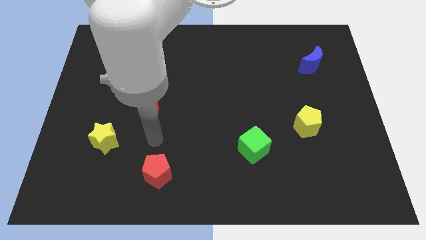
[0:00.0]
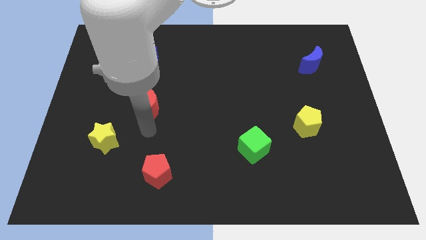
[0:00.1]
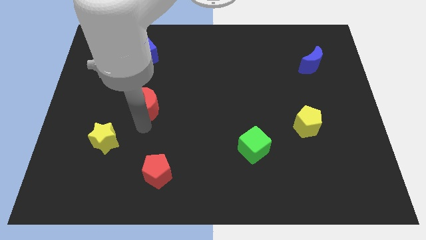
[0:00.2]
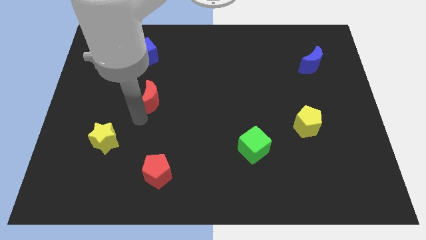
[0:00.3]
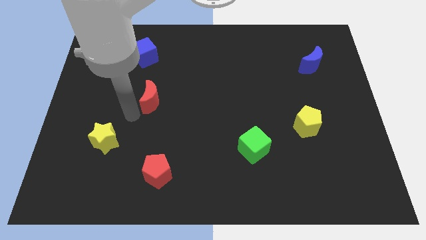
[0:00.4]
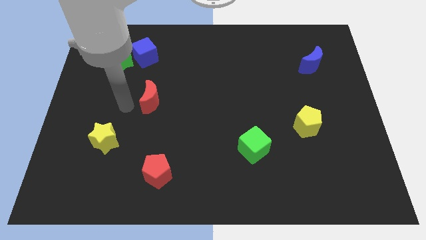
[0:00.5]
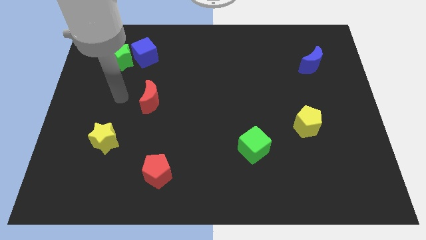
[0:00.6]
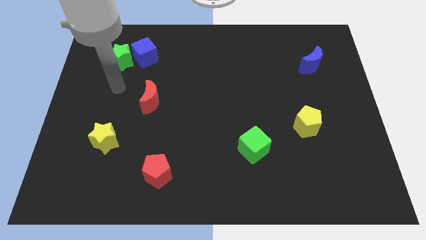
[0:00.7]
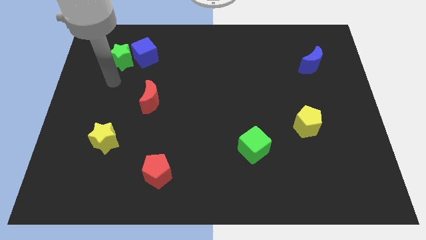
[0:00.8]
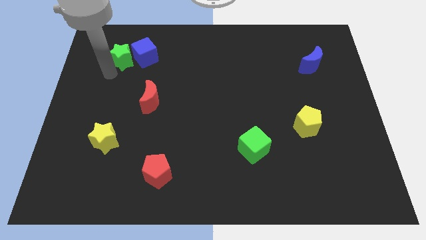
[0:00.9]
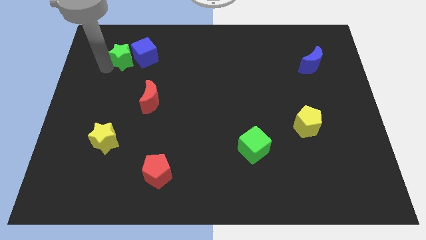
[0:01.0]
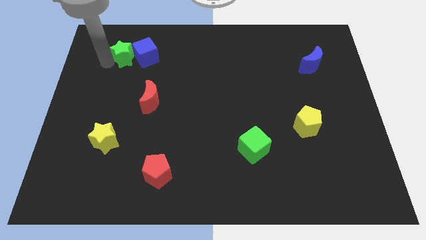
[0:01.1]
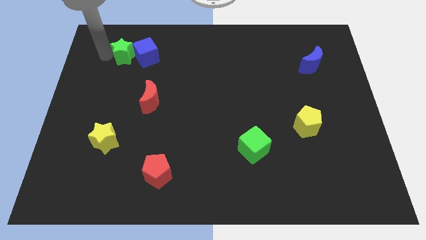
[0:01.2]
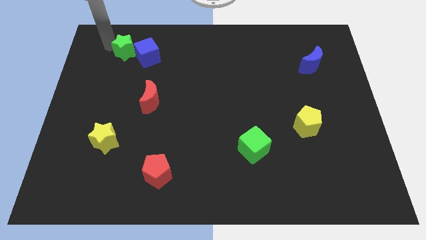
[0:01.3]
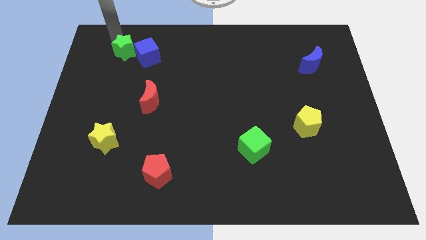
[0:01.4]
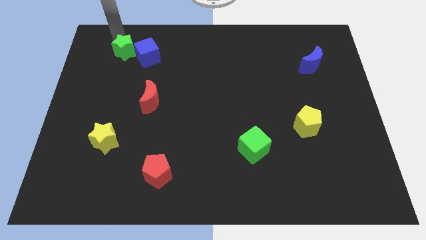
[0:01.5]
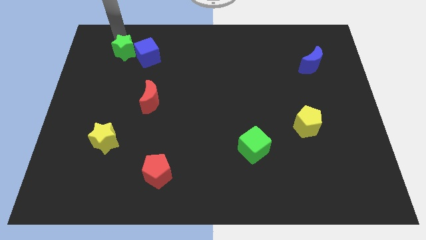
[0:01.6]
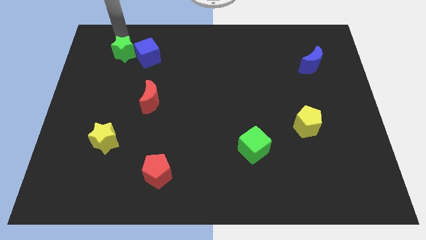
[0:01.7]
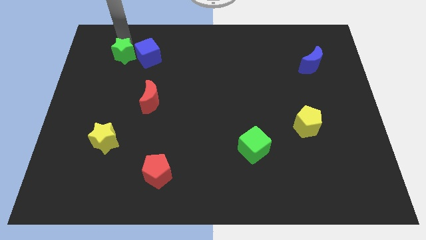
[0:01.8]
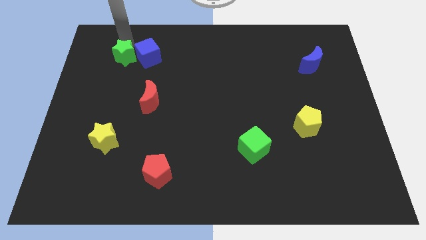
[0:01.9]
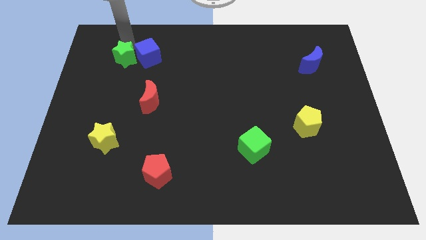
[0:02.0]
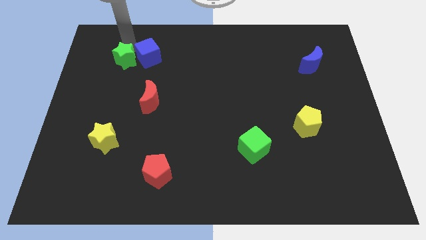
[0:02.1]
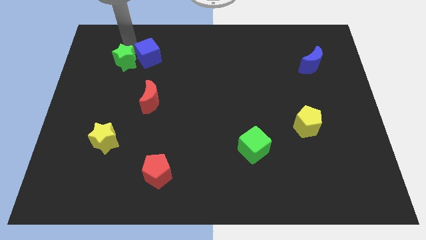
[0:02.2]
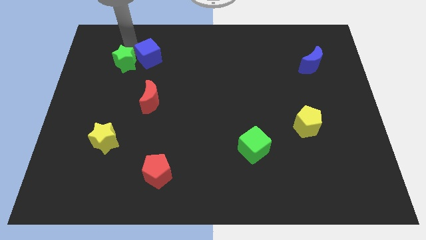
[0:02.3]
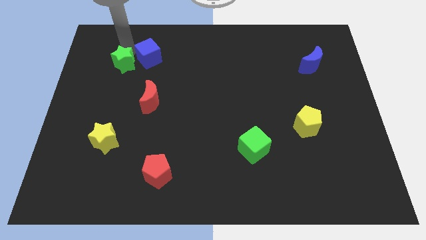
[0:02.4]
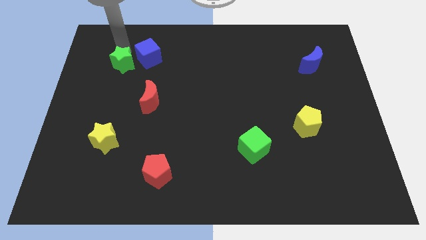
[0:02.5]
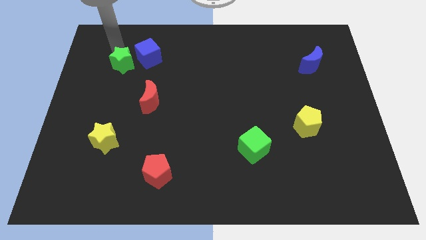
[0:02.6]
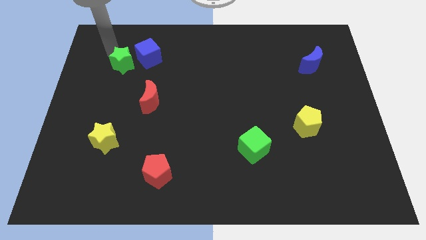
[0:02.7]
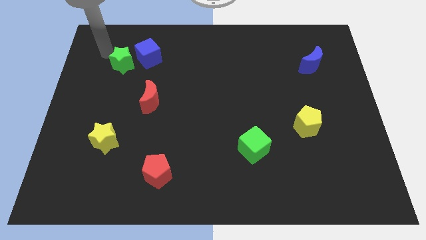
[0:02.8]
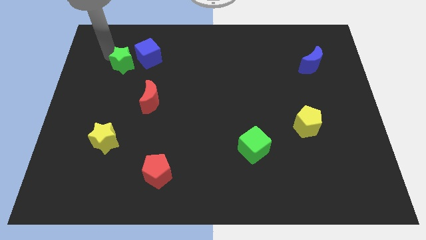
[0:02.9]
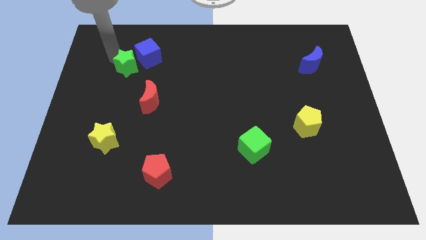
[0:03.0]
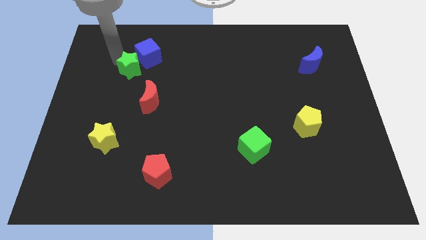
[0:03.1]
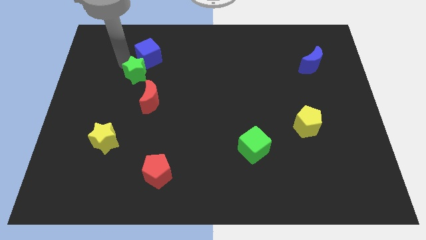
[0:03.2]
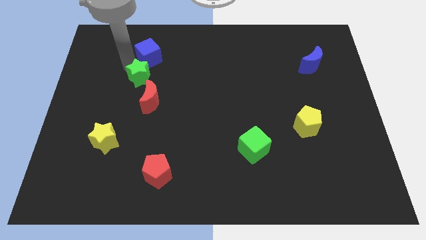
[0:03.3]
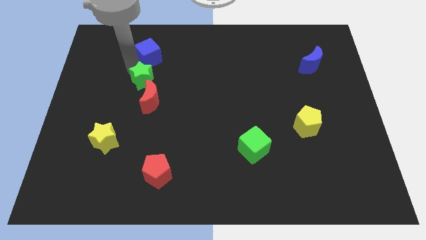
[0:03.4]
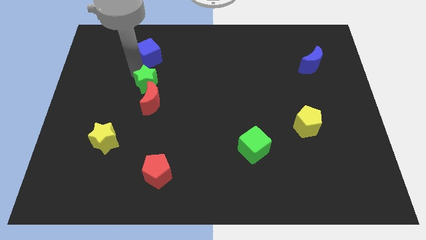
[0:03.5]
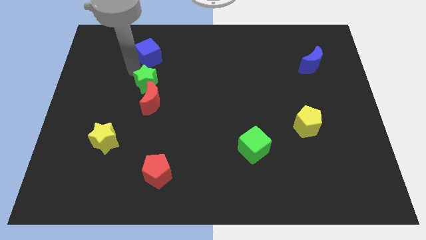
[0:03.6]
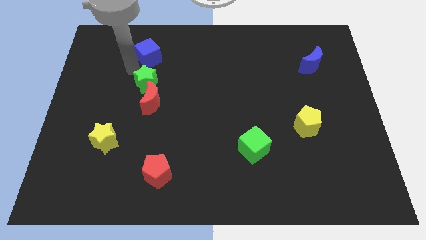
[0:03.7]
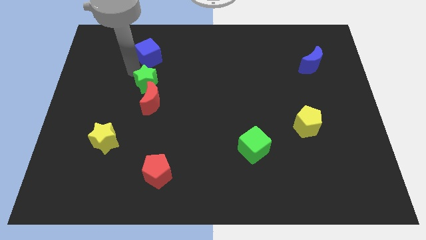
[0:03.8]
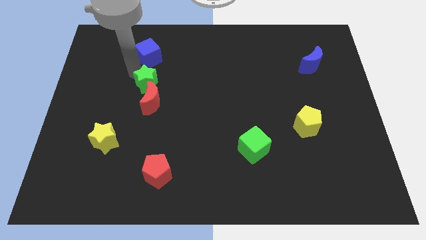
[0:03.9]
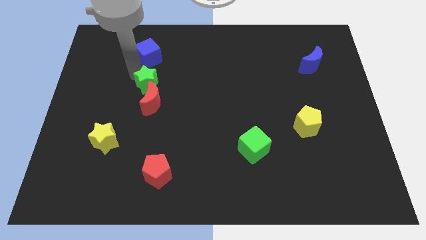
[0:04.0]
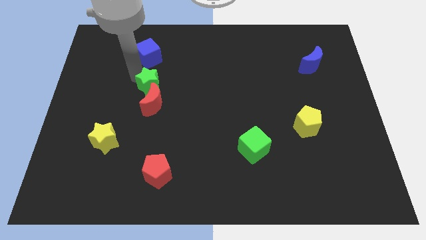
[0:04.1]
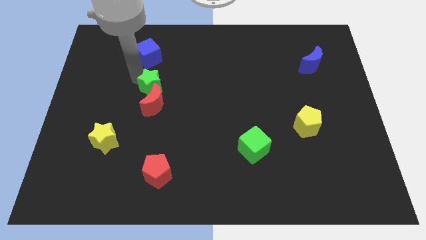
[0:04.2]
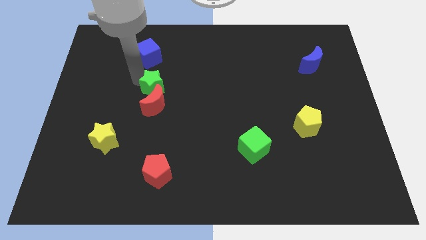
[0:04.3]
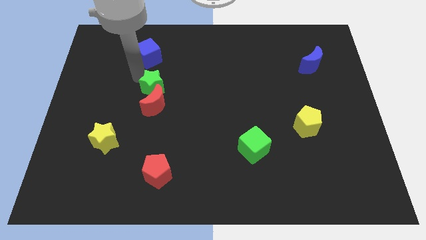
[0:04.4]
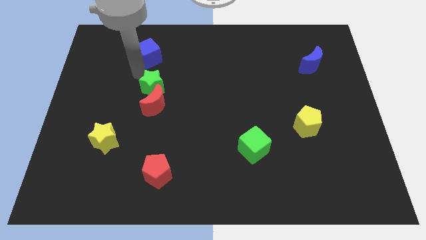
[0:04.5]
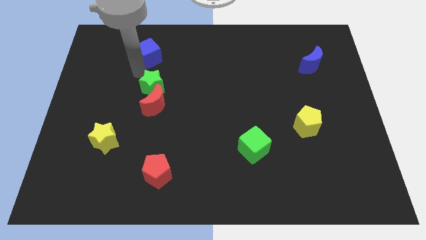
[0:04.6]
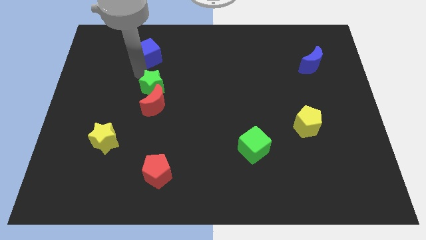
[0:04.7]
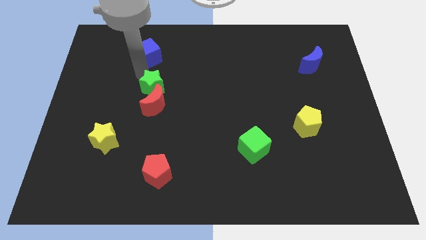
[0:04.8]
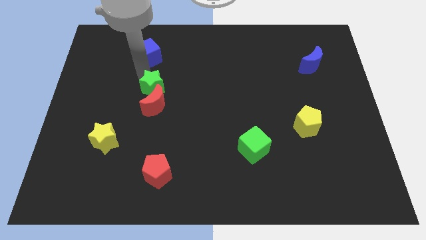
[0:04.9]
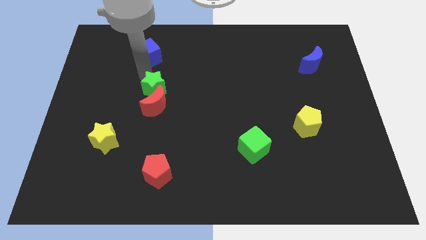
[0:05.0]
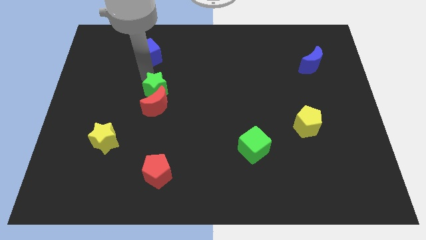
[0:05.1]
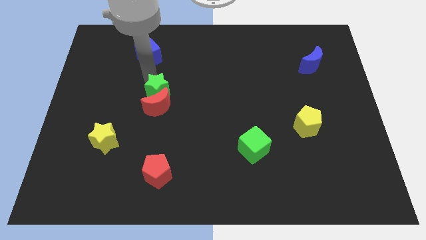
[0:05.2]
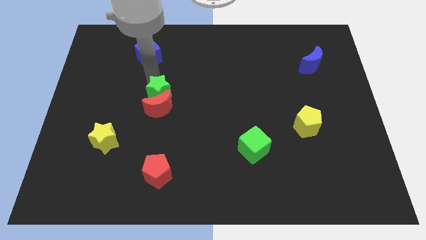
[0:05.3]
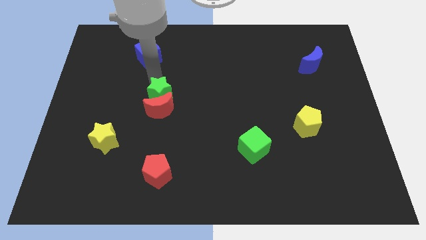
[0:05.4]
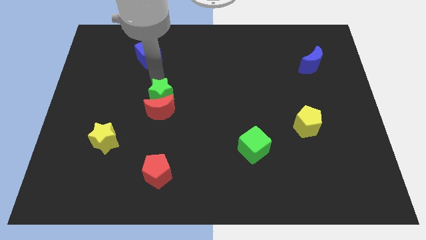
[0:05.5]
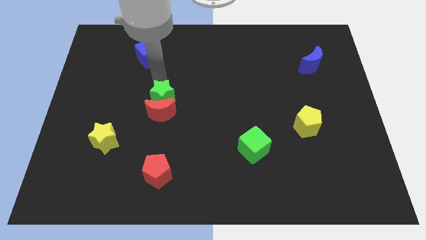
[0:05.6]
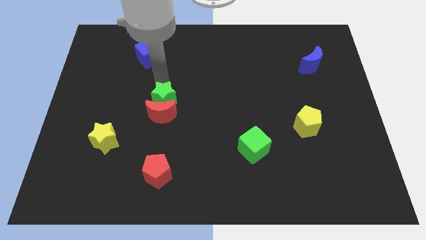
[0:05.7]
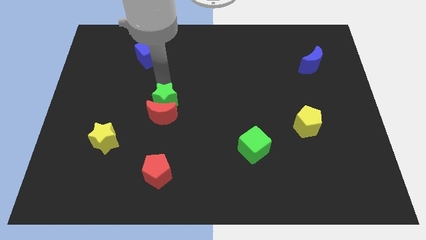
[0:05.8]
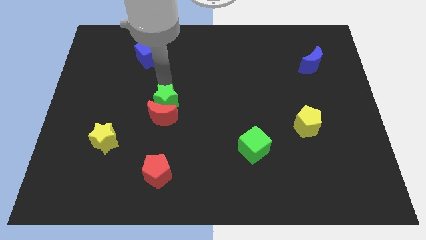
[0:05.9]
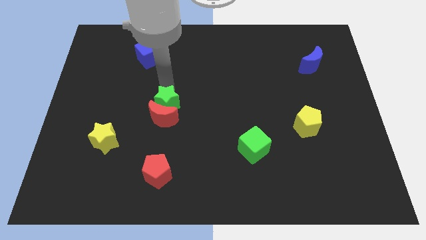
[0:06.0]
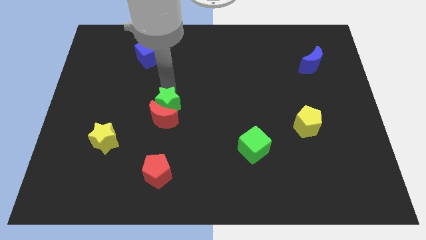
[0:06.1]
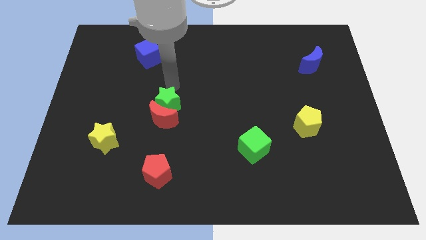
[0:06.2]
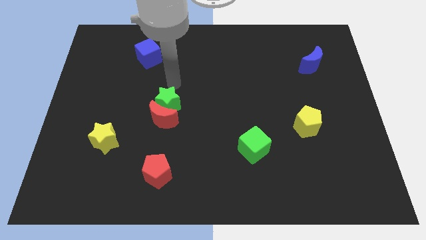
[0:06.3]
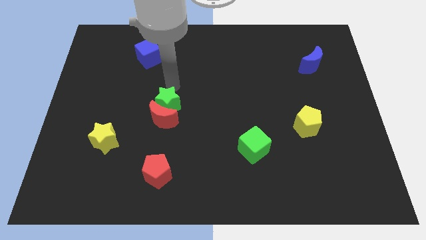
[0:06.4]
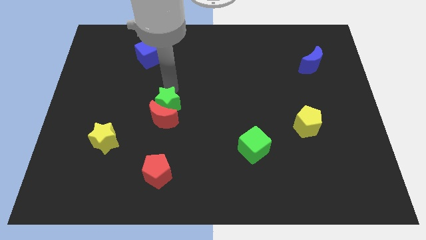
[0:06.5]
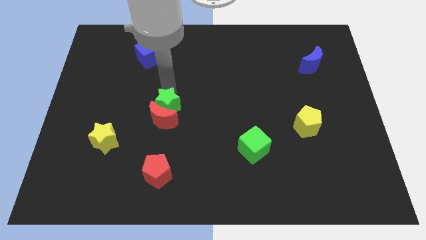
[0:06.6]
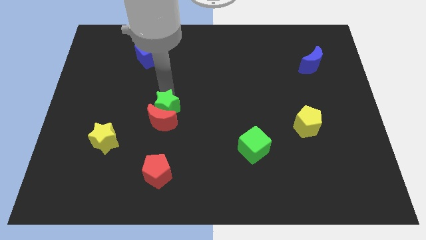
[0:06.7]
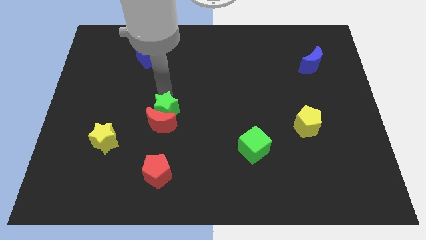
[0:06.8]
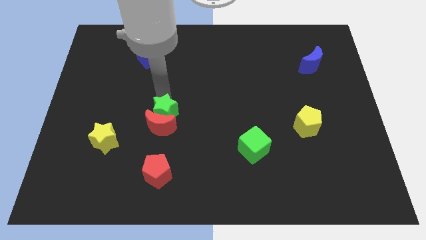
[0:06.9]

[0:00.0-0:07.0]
move the green star to the top side of the red pentagon
